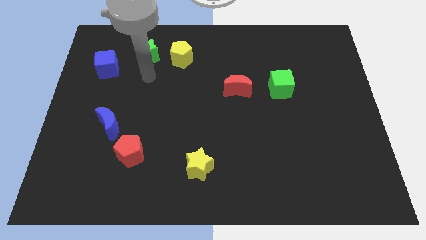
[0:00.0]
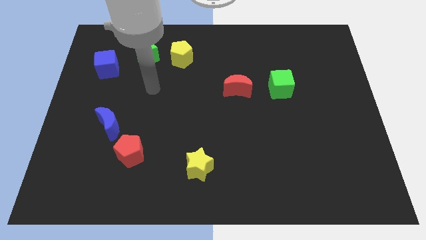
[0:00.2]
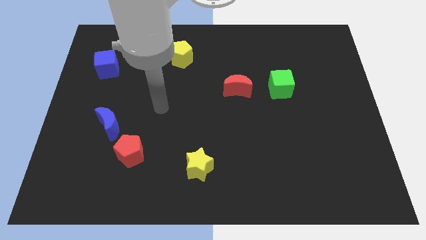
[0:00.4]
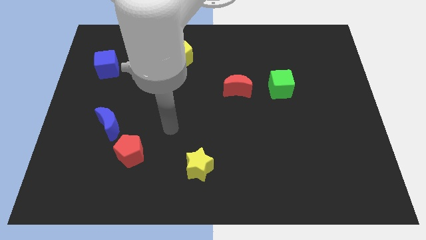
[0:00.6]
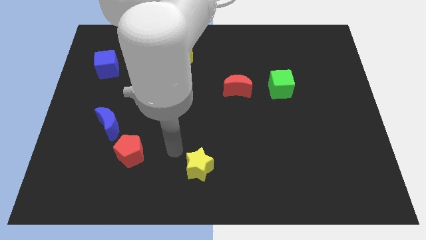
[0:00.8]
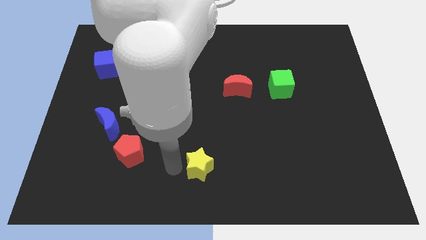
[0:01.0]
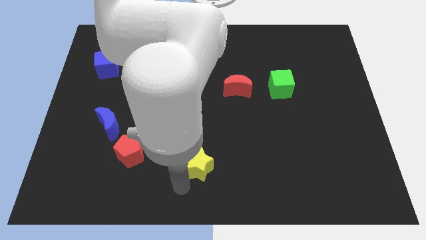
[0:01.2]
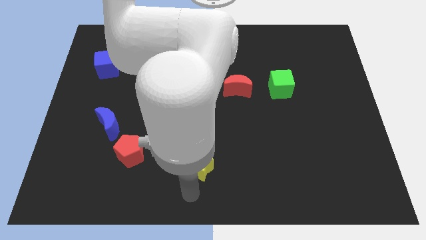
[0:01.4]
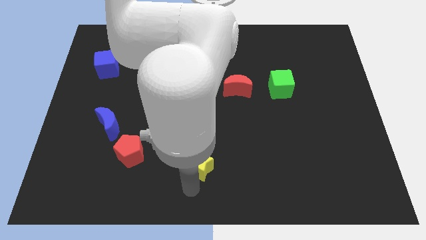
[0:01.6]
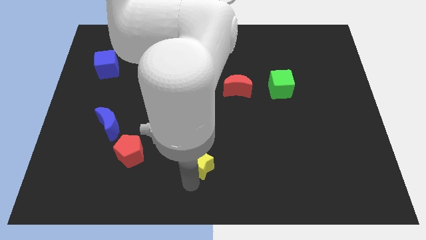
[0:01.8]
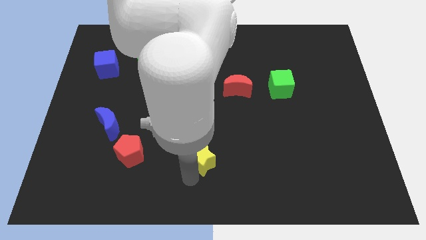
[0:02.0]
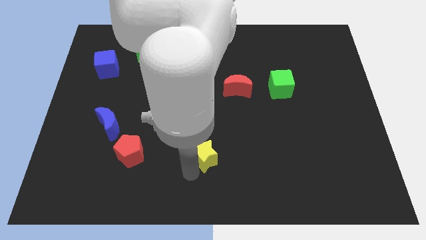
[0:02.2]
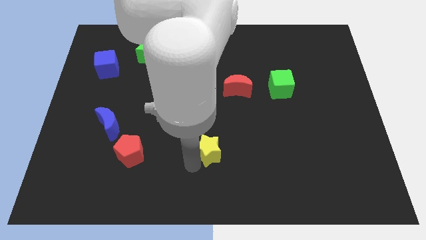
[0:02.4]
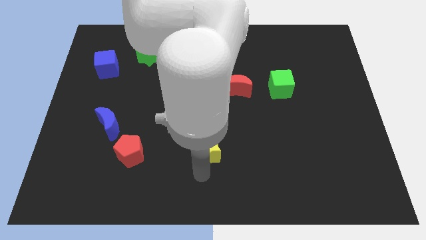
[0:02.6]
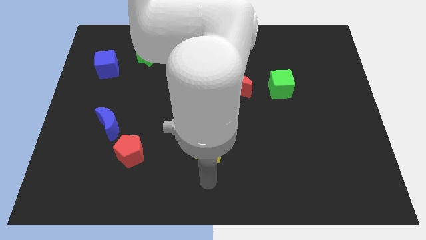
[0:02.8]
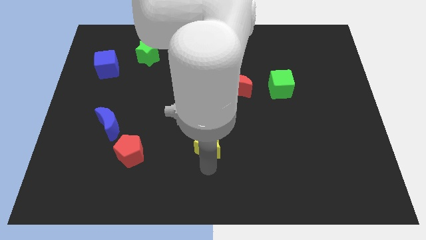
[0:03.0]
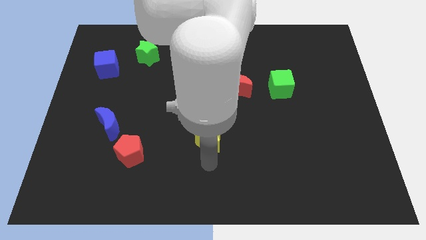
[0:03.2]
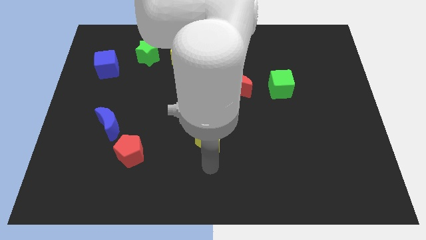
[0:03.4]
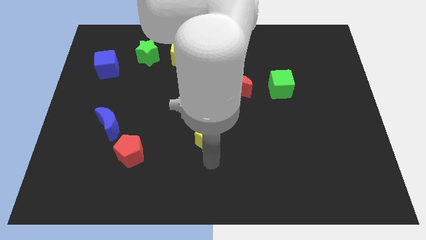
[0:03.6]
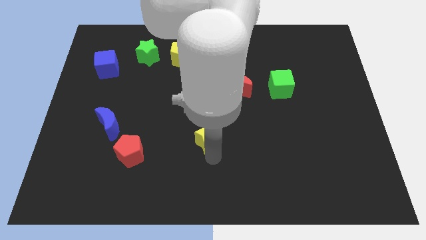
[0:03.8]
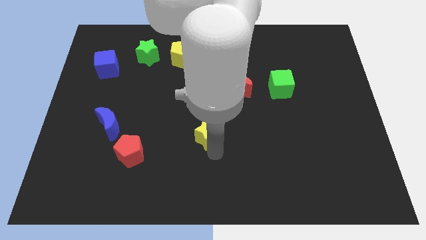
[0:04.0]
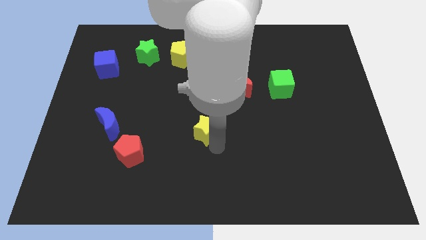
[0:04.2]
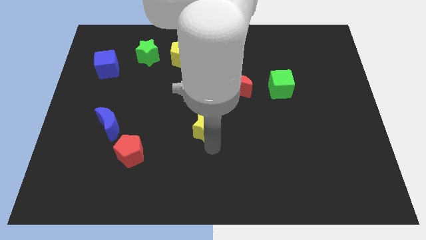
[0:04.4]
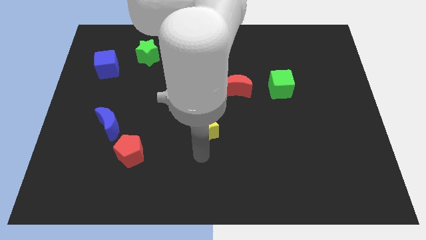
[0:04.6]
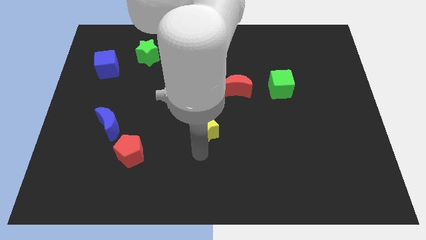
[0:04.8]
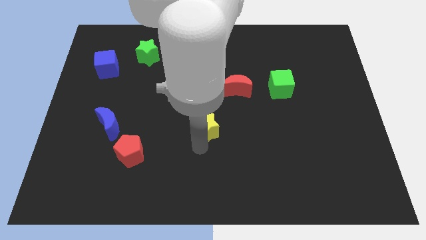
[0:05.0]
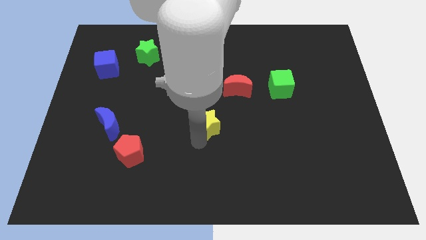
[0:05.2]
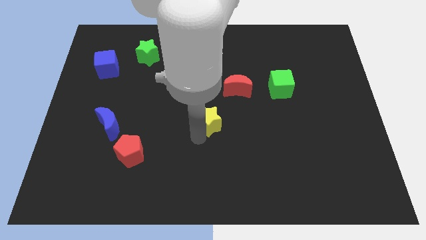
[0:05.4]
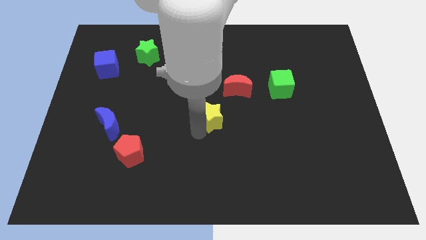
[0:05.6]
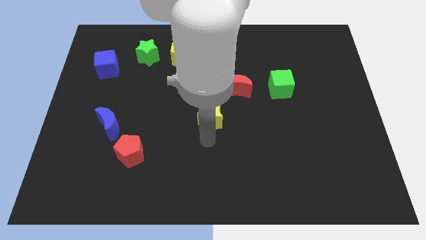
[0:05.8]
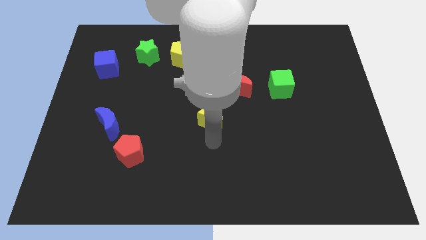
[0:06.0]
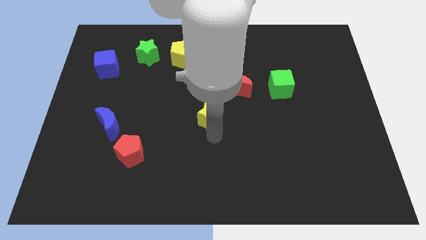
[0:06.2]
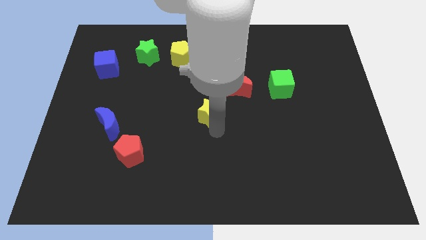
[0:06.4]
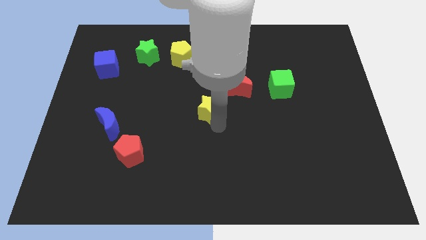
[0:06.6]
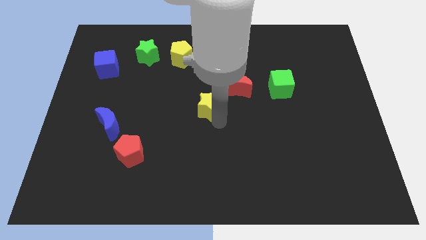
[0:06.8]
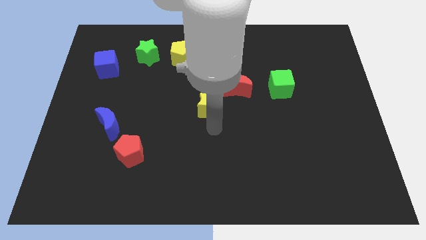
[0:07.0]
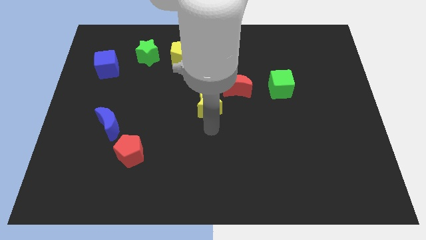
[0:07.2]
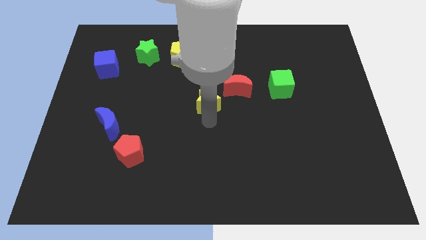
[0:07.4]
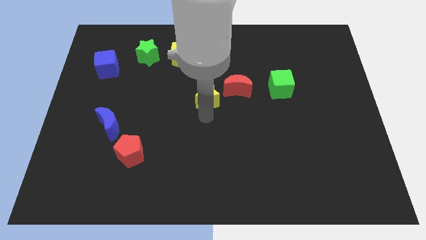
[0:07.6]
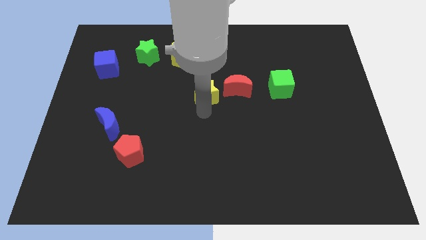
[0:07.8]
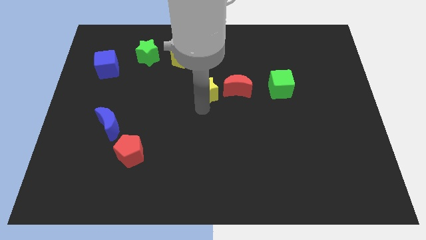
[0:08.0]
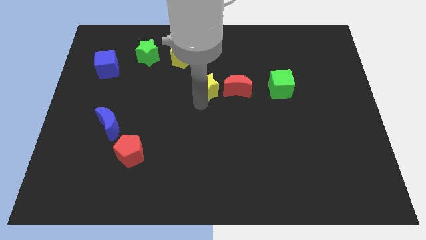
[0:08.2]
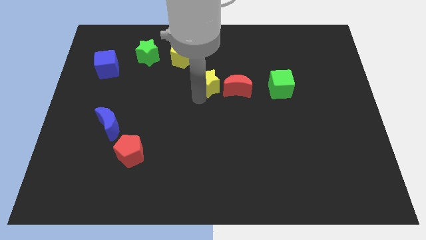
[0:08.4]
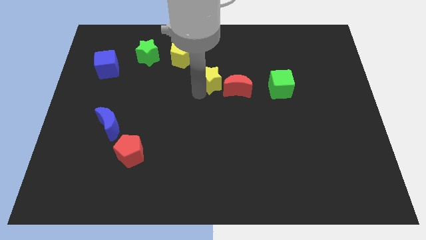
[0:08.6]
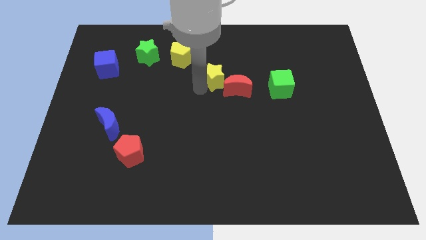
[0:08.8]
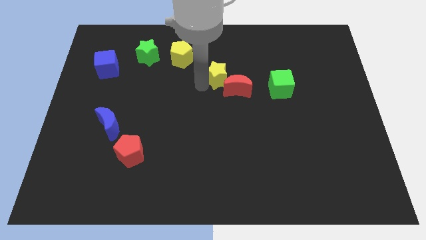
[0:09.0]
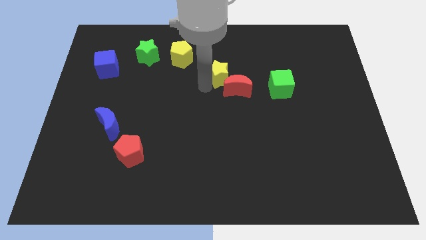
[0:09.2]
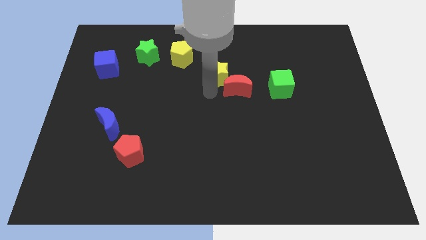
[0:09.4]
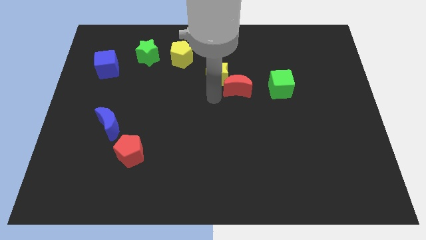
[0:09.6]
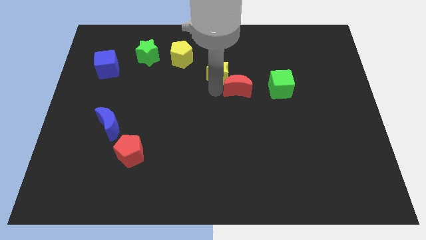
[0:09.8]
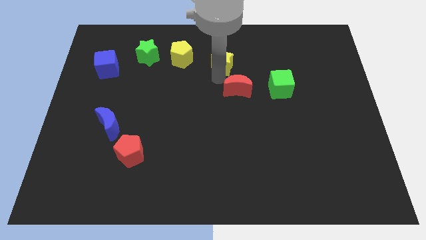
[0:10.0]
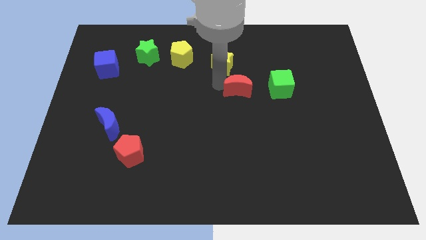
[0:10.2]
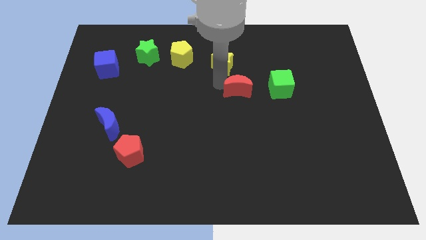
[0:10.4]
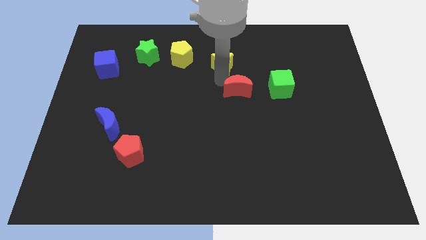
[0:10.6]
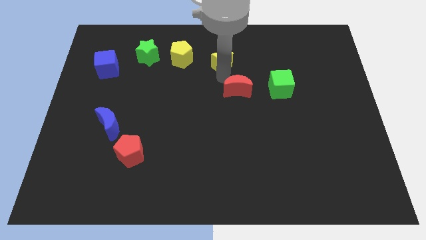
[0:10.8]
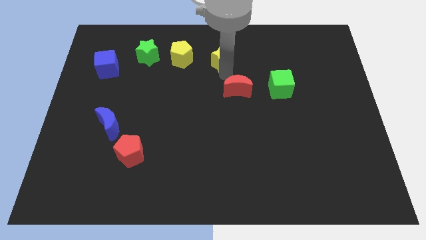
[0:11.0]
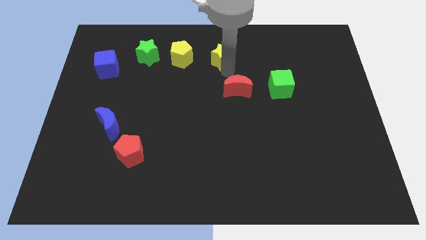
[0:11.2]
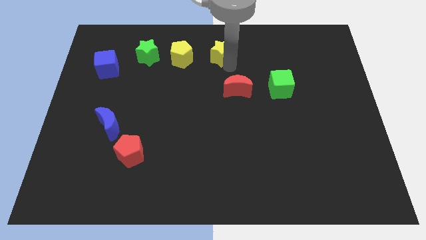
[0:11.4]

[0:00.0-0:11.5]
move the yellow star to the towards your base

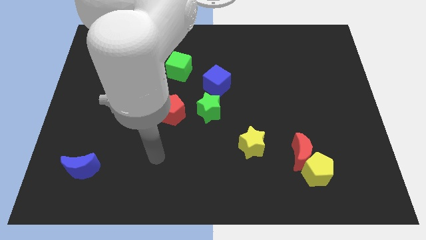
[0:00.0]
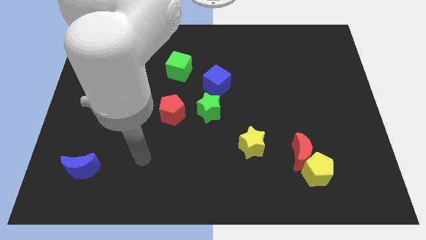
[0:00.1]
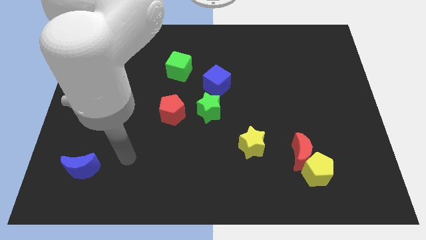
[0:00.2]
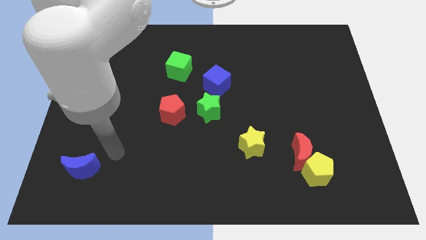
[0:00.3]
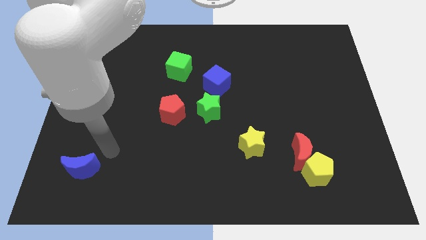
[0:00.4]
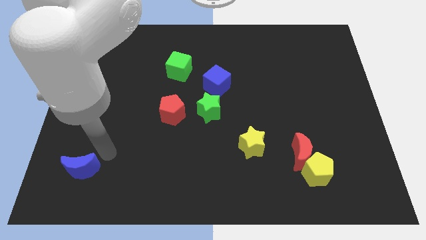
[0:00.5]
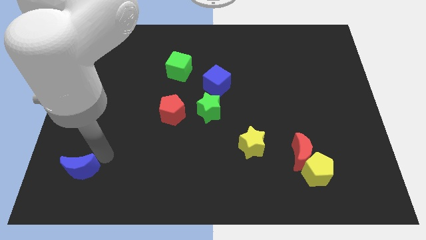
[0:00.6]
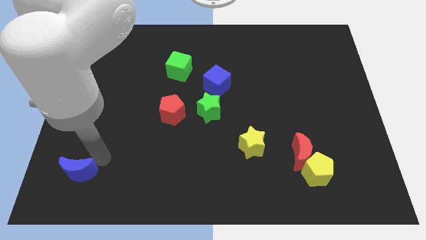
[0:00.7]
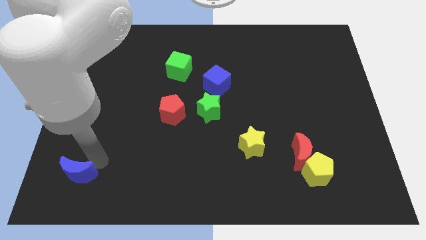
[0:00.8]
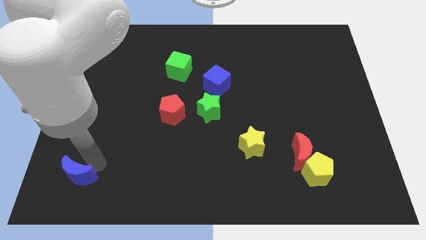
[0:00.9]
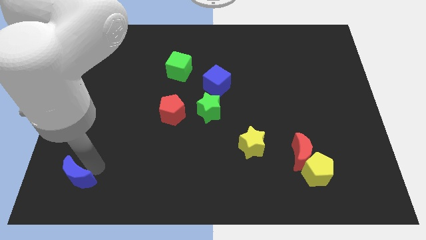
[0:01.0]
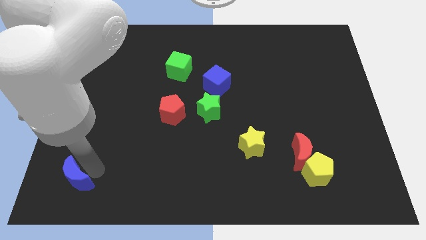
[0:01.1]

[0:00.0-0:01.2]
move the blue moon to the bottom left corner
